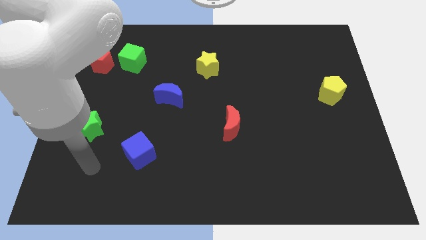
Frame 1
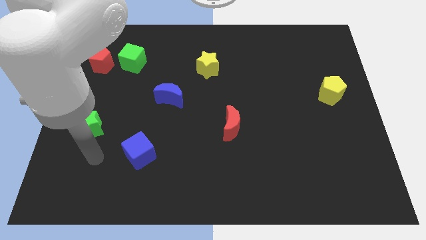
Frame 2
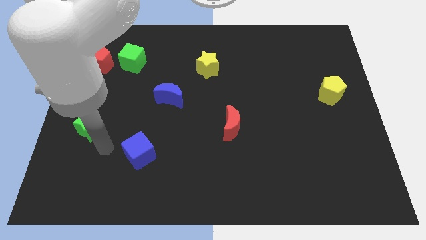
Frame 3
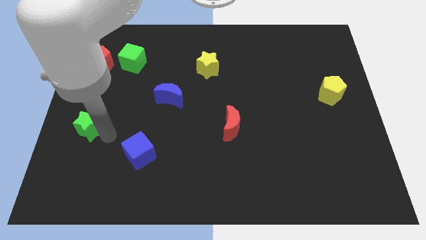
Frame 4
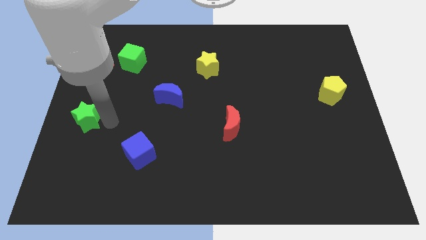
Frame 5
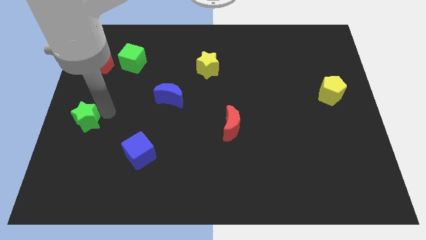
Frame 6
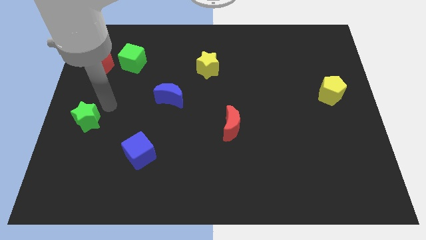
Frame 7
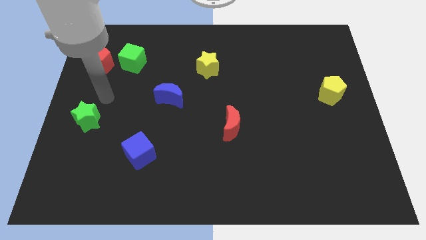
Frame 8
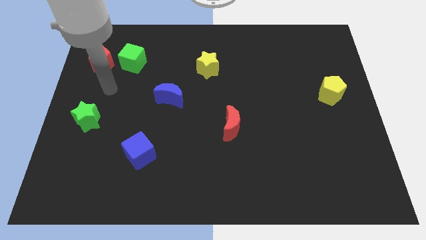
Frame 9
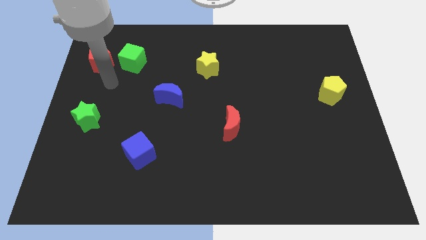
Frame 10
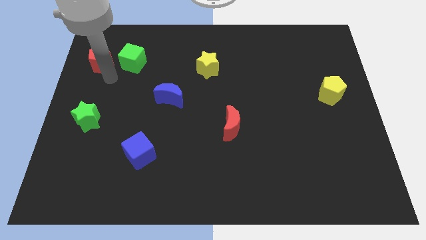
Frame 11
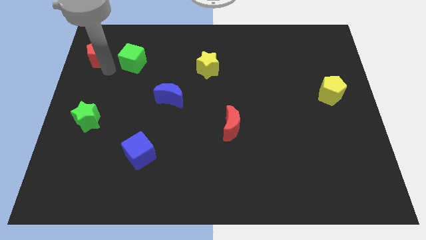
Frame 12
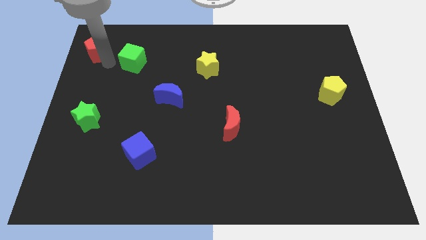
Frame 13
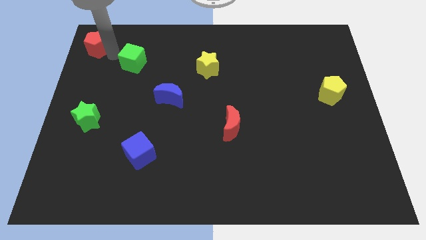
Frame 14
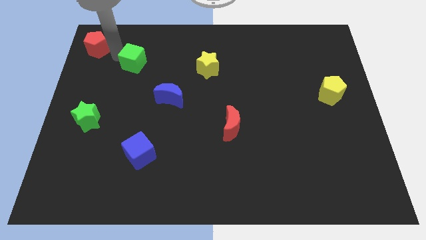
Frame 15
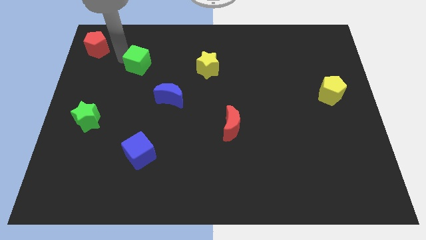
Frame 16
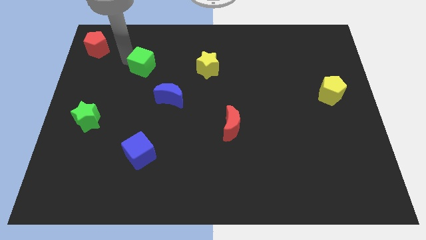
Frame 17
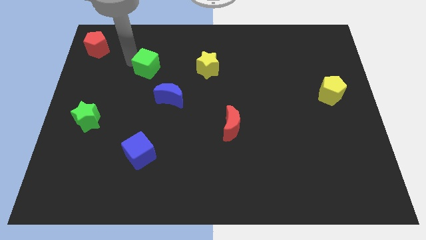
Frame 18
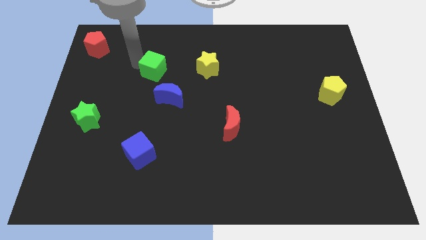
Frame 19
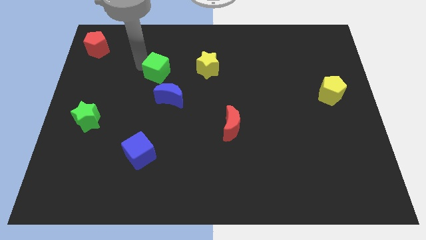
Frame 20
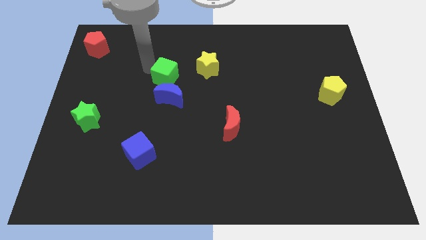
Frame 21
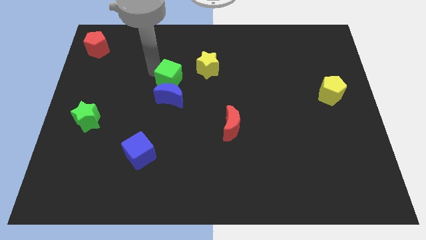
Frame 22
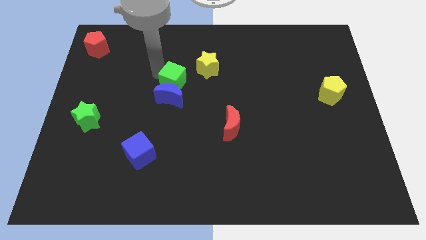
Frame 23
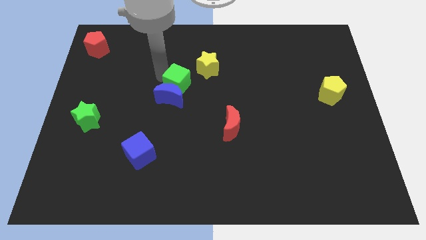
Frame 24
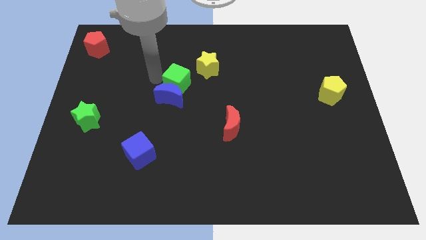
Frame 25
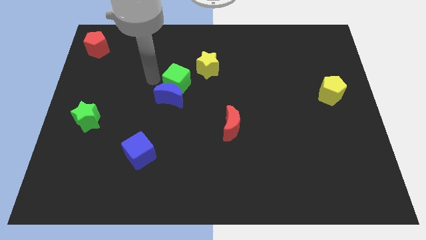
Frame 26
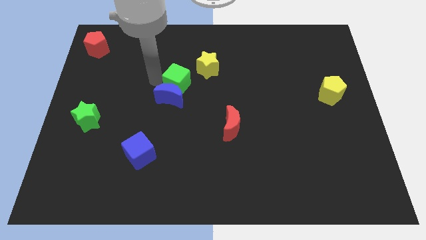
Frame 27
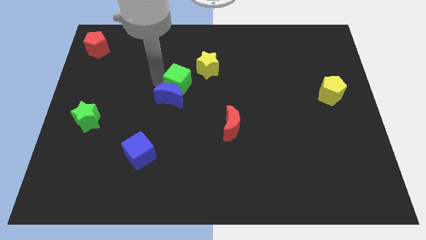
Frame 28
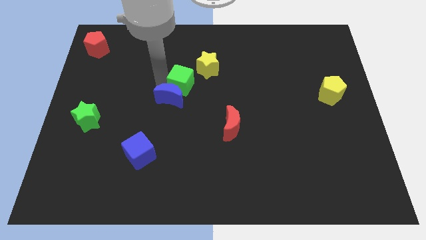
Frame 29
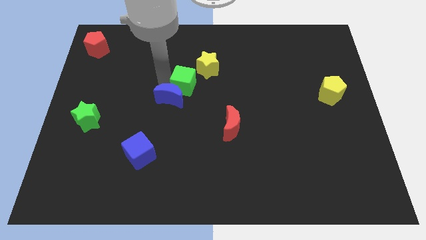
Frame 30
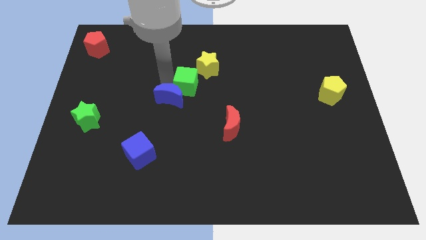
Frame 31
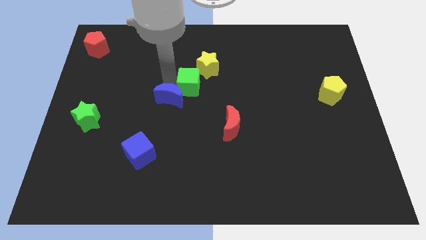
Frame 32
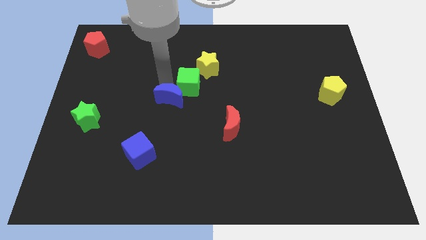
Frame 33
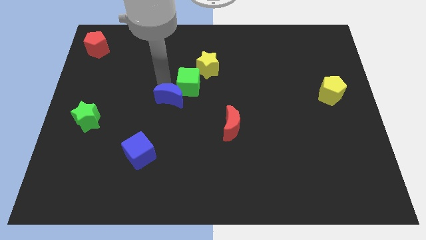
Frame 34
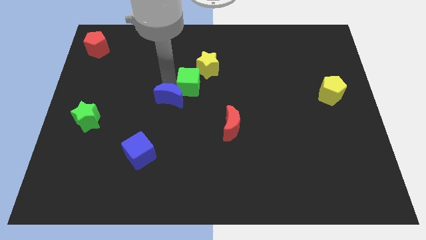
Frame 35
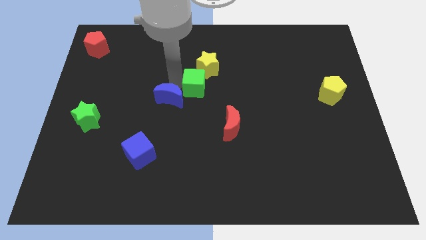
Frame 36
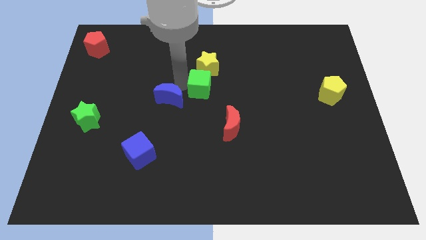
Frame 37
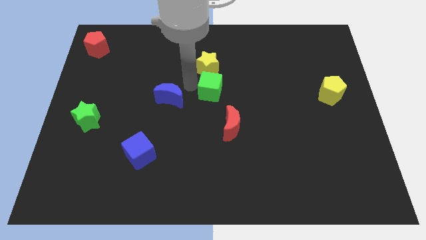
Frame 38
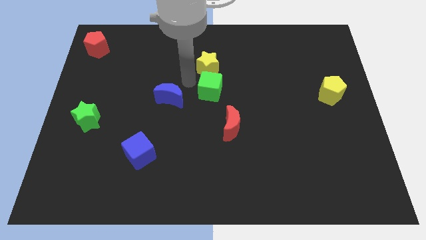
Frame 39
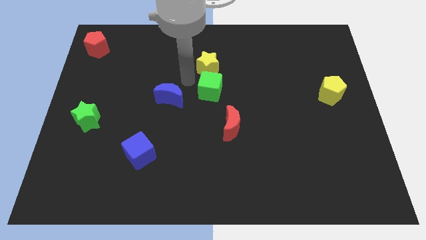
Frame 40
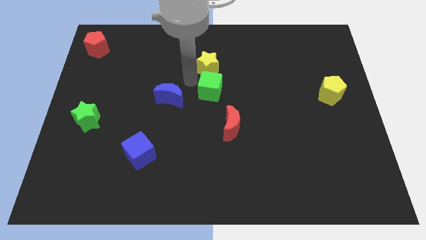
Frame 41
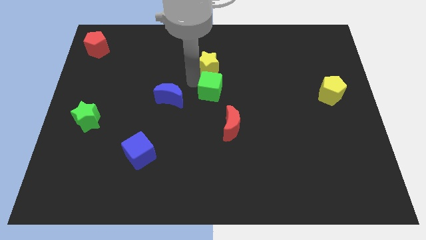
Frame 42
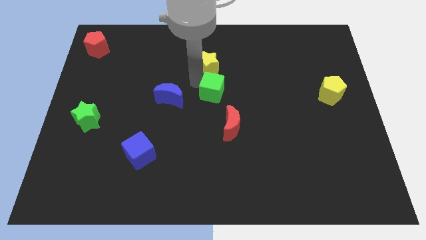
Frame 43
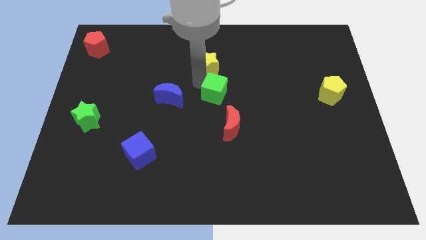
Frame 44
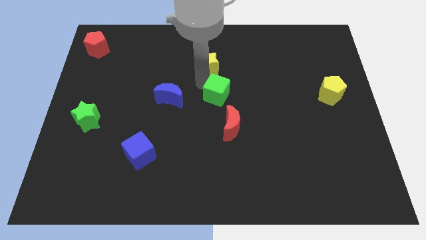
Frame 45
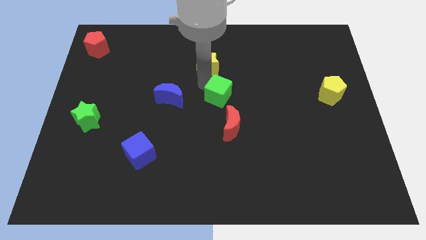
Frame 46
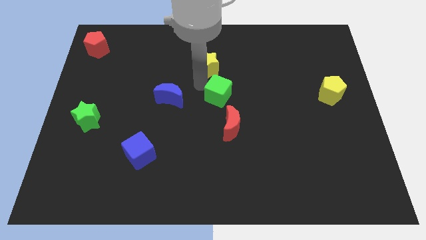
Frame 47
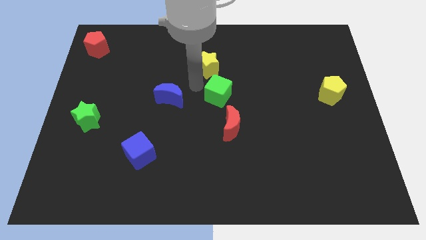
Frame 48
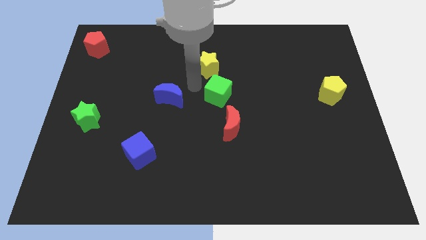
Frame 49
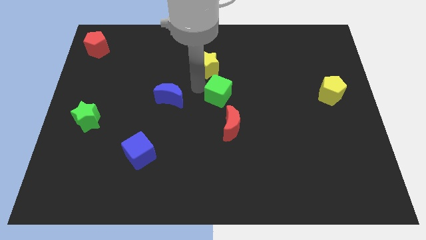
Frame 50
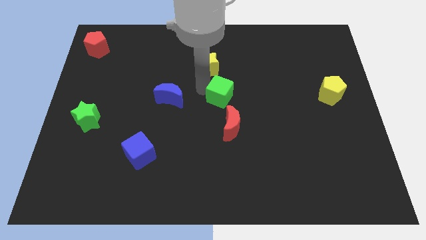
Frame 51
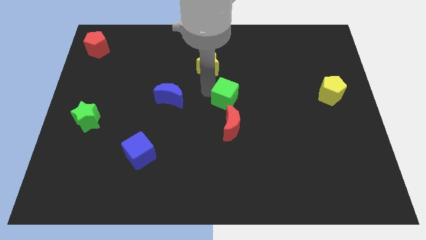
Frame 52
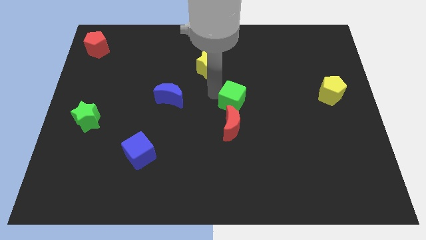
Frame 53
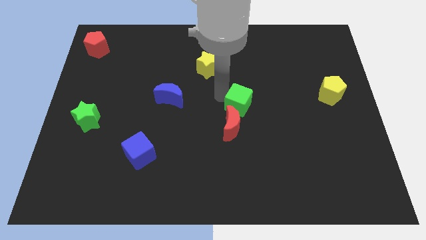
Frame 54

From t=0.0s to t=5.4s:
slide the green cube diagonally up and to the right of the red moon

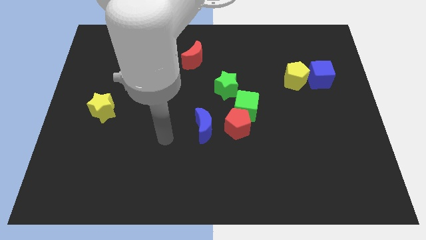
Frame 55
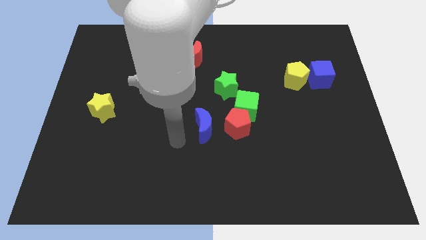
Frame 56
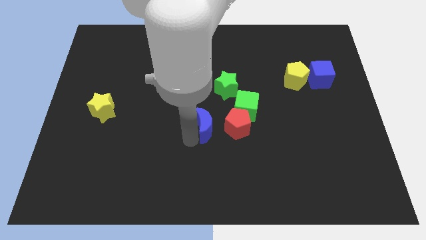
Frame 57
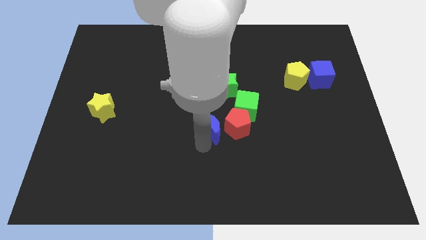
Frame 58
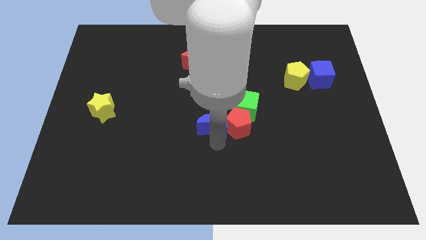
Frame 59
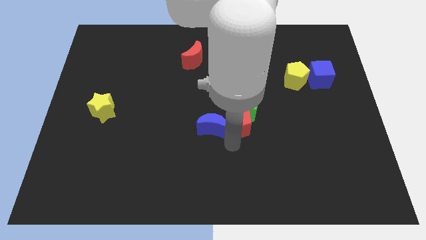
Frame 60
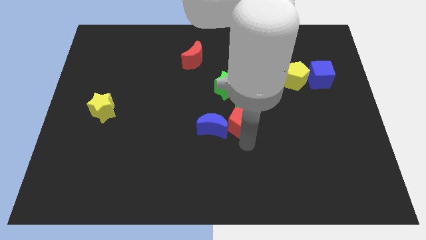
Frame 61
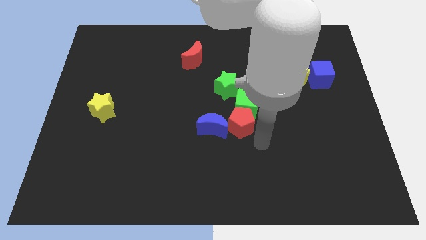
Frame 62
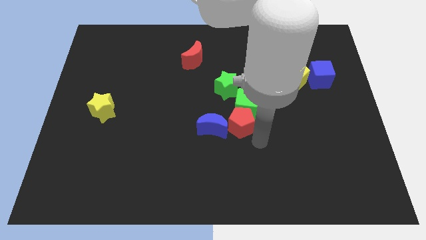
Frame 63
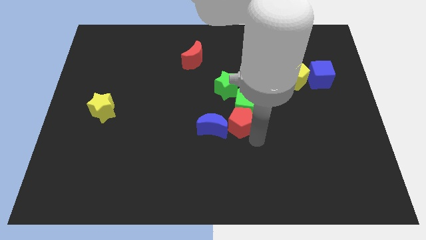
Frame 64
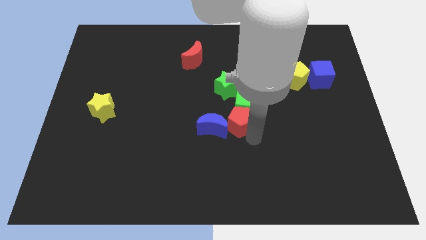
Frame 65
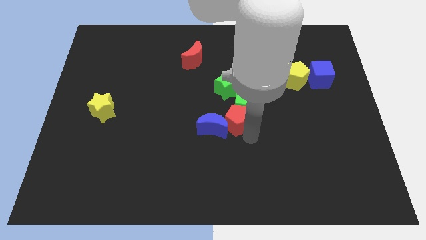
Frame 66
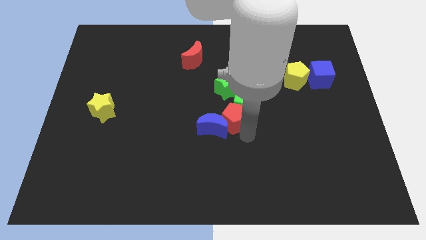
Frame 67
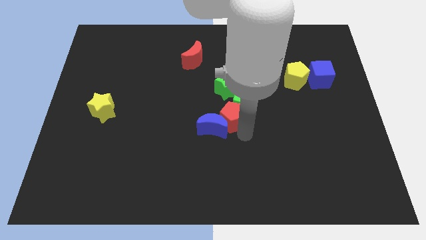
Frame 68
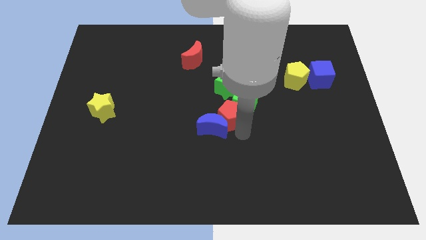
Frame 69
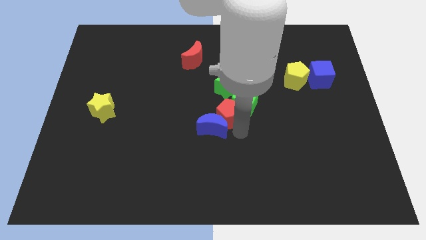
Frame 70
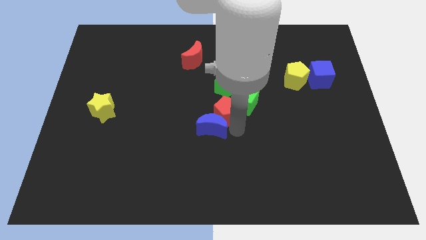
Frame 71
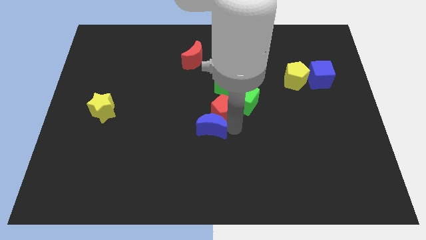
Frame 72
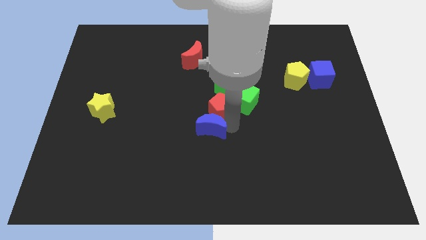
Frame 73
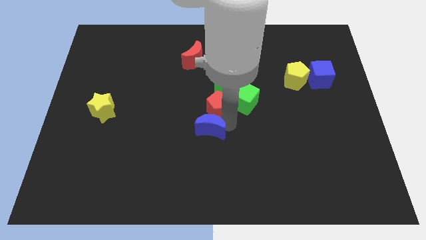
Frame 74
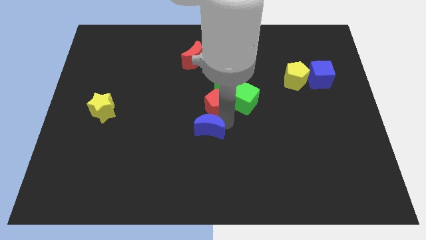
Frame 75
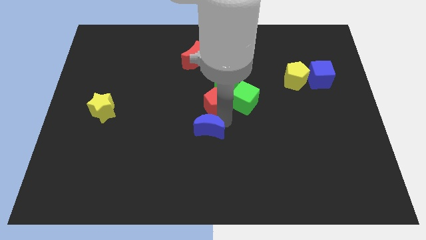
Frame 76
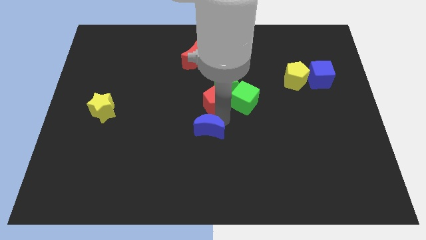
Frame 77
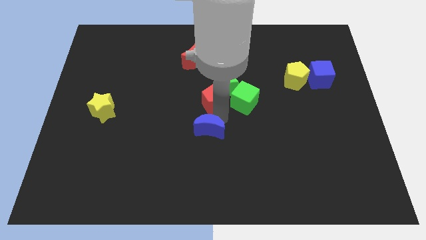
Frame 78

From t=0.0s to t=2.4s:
slide the red pentagon just left of the green star
